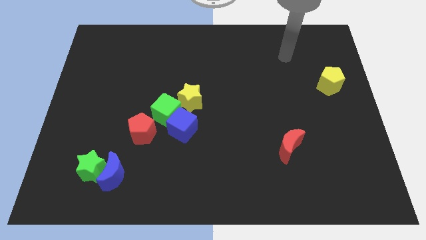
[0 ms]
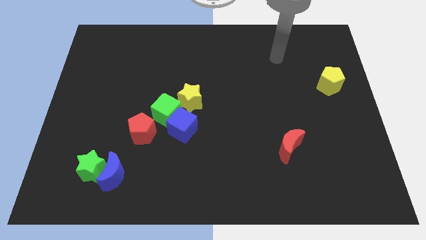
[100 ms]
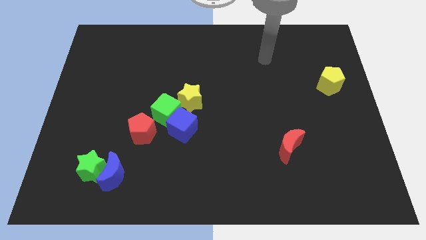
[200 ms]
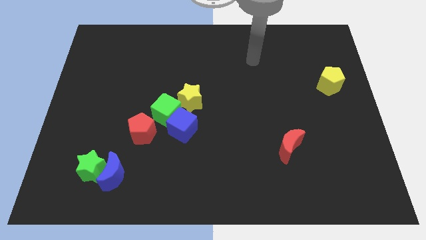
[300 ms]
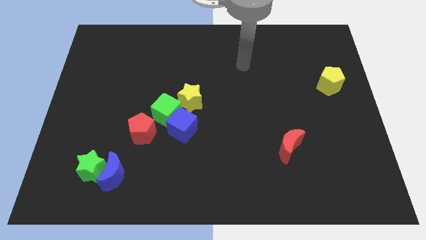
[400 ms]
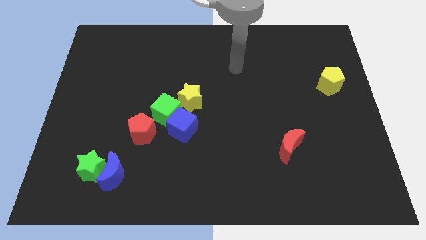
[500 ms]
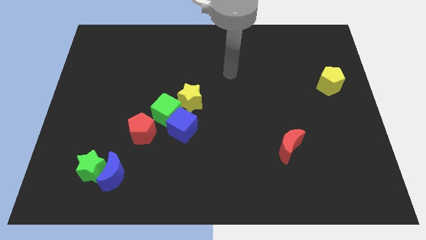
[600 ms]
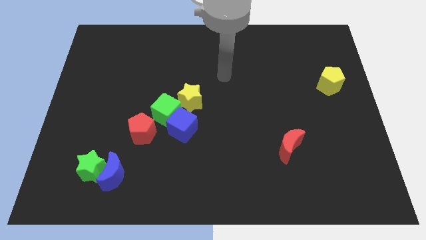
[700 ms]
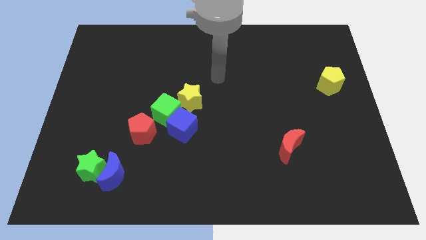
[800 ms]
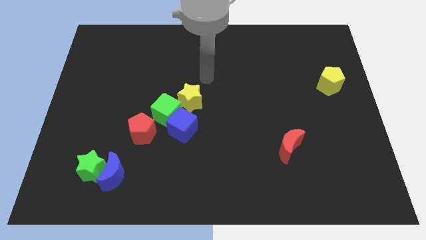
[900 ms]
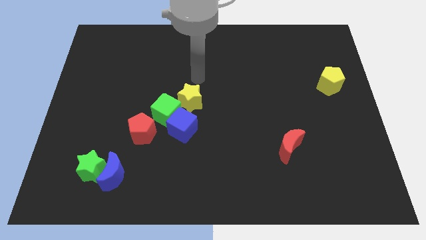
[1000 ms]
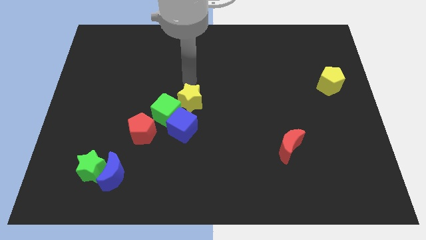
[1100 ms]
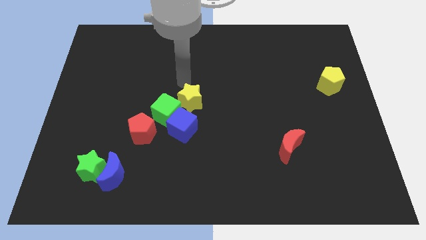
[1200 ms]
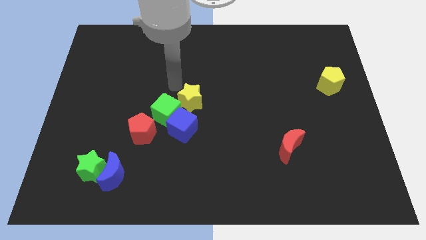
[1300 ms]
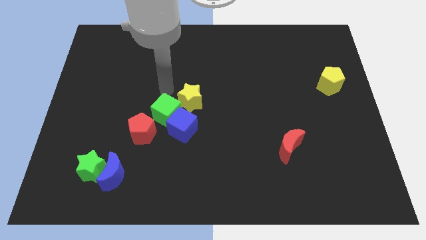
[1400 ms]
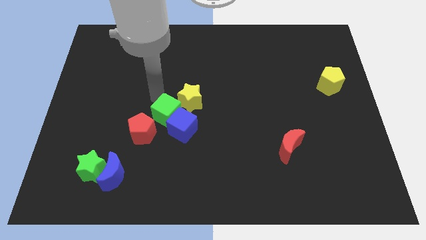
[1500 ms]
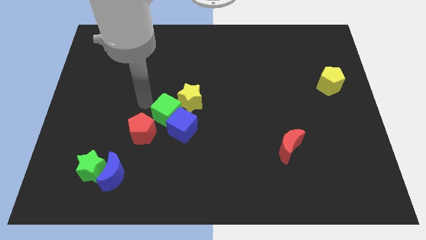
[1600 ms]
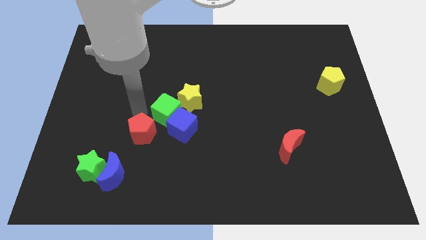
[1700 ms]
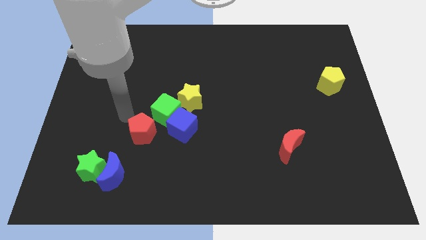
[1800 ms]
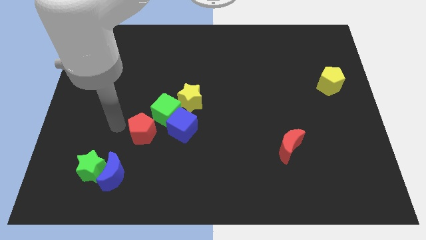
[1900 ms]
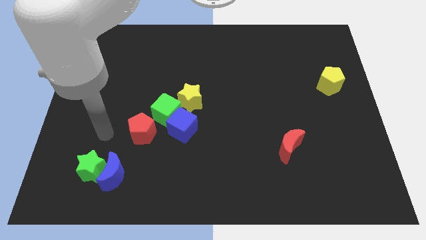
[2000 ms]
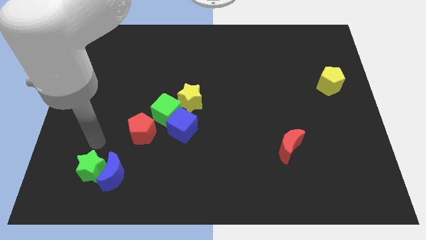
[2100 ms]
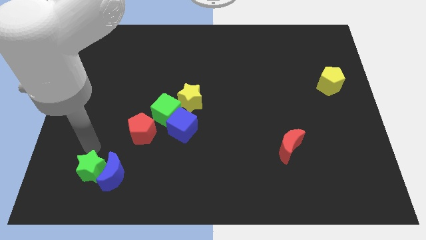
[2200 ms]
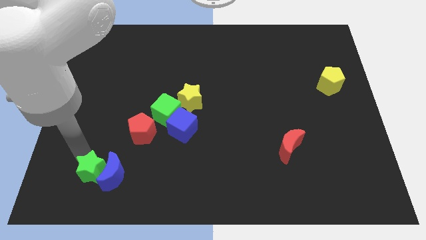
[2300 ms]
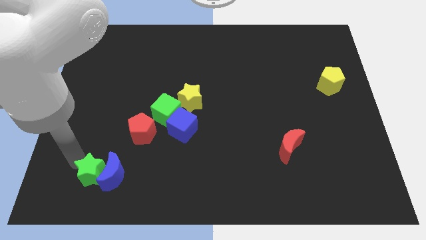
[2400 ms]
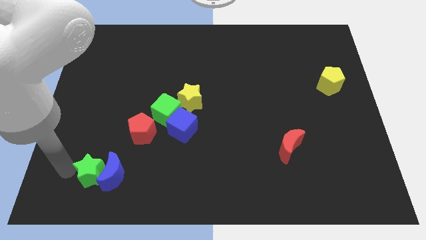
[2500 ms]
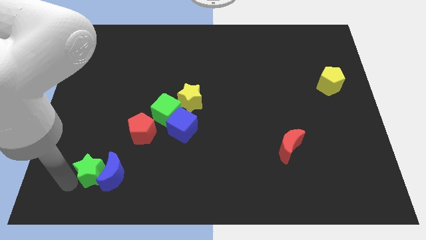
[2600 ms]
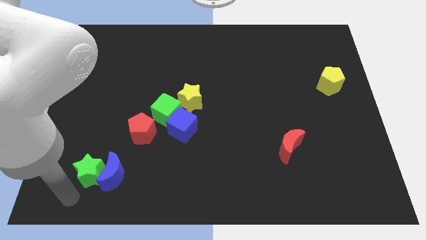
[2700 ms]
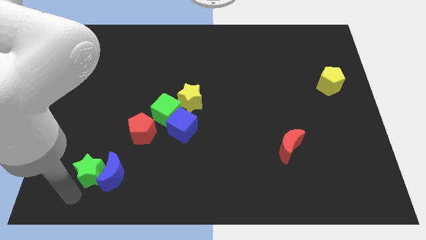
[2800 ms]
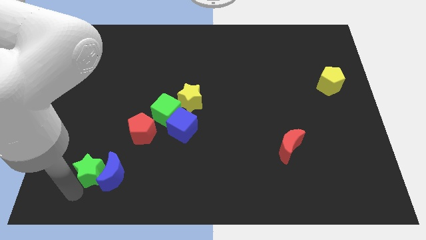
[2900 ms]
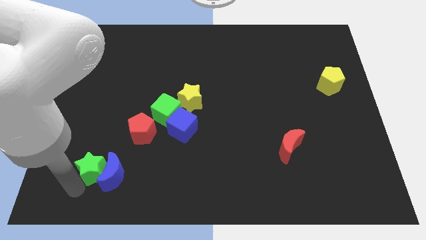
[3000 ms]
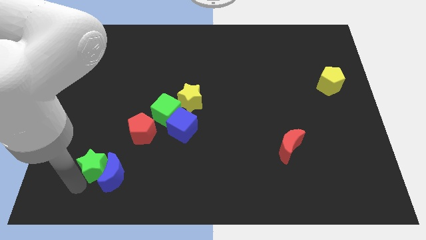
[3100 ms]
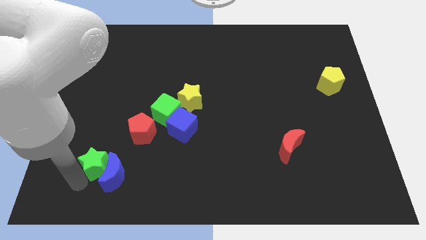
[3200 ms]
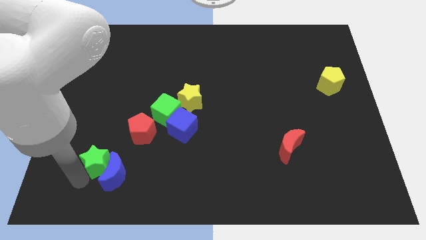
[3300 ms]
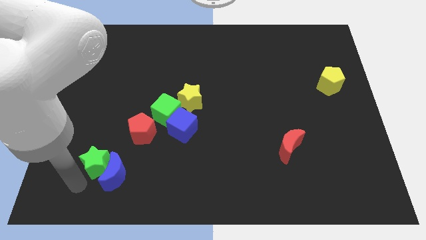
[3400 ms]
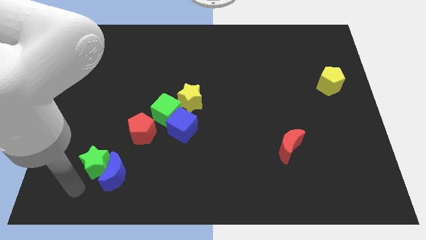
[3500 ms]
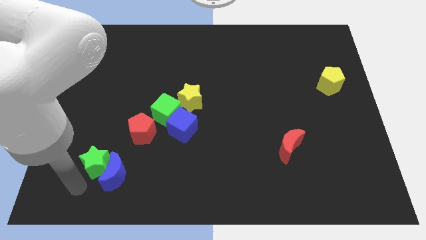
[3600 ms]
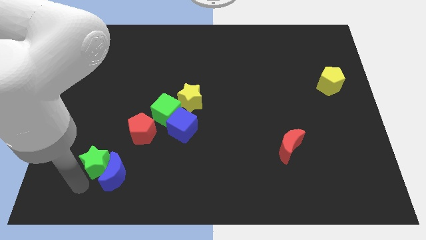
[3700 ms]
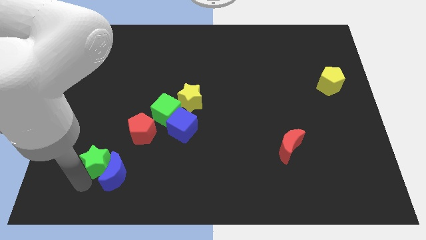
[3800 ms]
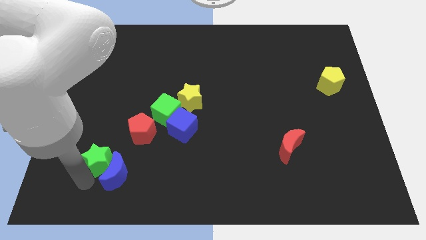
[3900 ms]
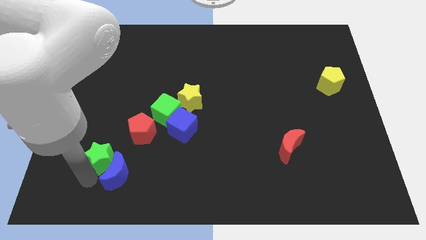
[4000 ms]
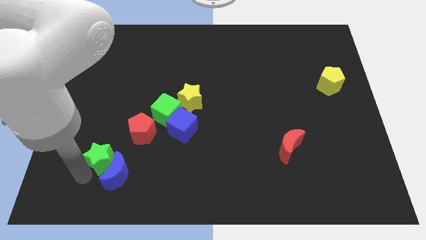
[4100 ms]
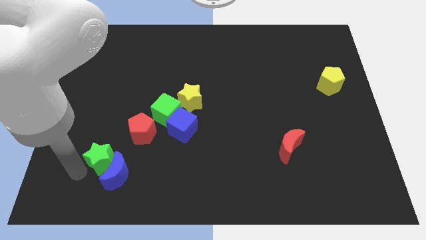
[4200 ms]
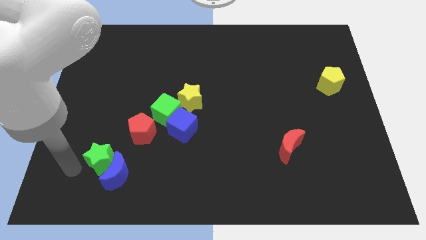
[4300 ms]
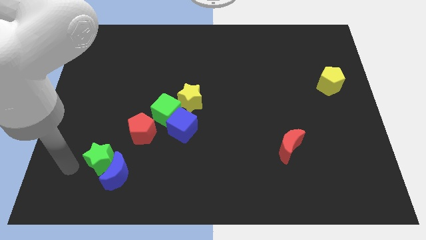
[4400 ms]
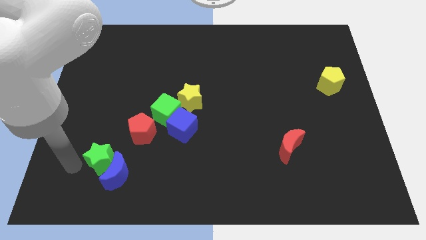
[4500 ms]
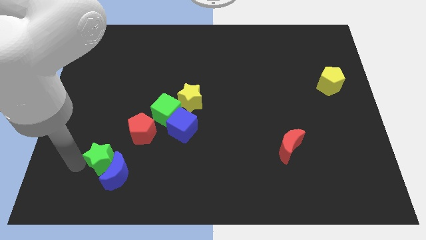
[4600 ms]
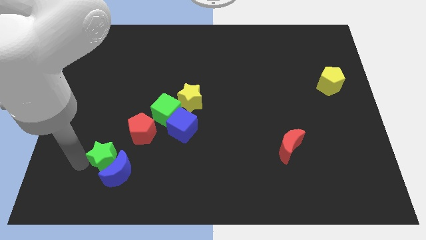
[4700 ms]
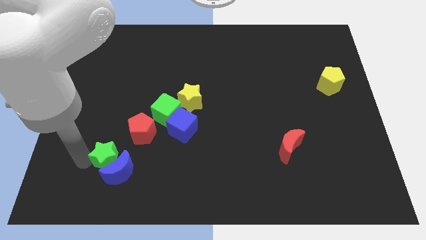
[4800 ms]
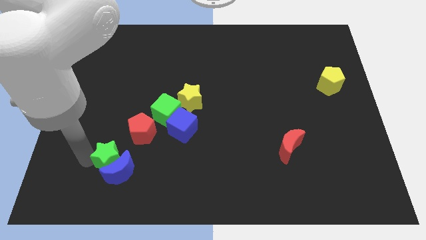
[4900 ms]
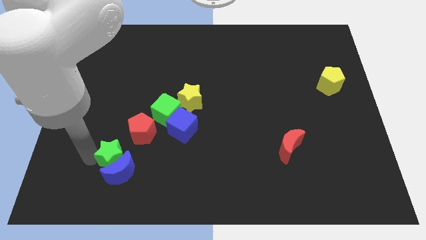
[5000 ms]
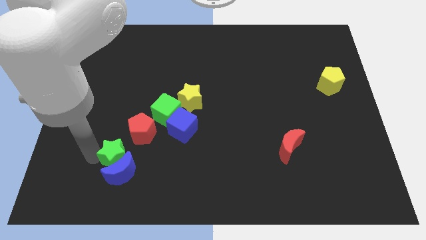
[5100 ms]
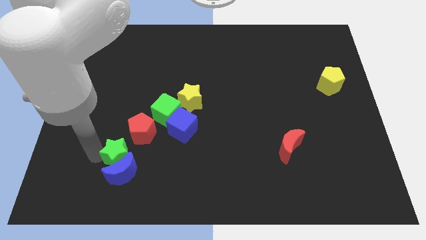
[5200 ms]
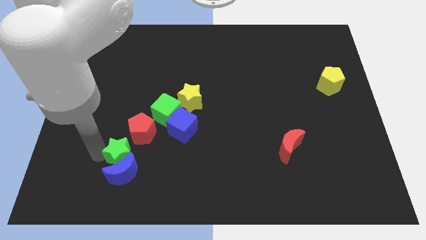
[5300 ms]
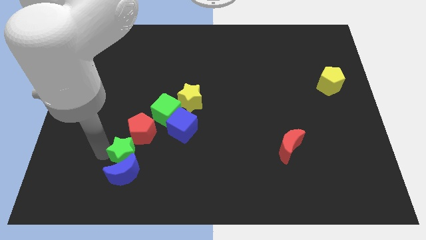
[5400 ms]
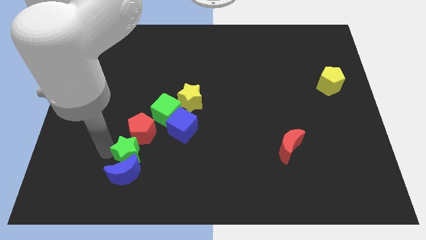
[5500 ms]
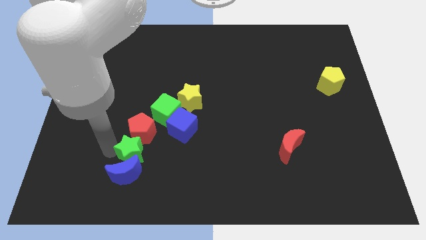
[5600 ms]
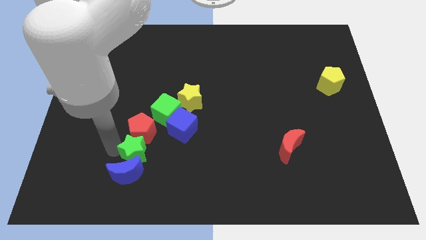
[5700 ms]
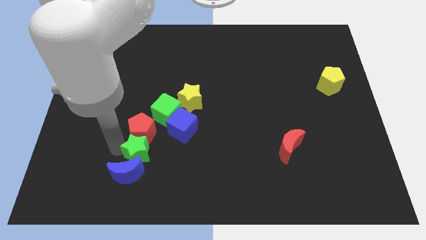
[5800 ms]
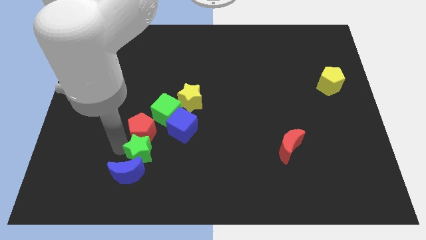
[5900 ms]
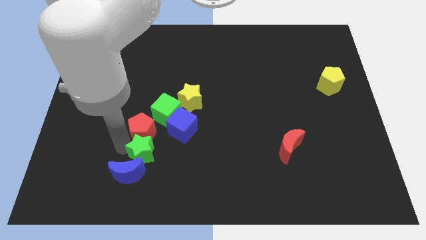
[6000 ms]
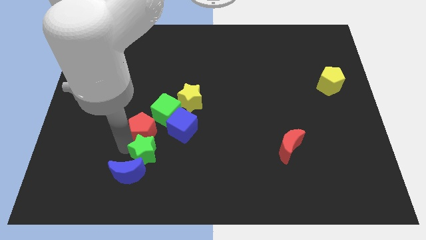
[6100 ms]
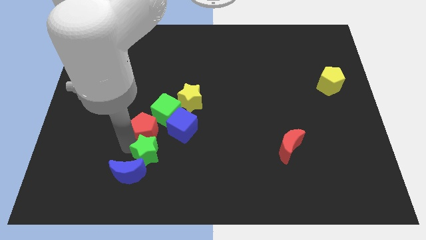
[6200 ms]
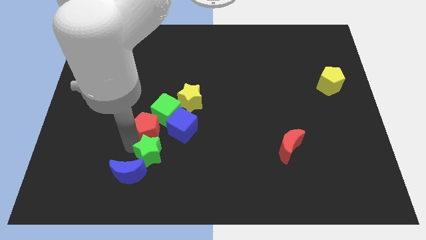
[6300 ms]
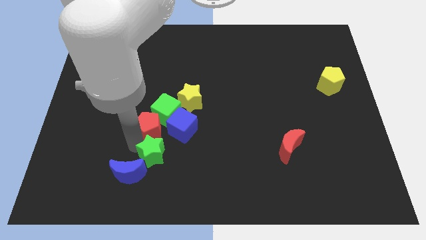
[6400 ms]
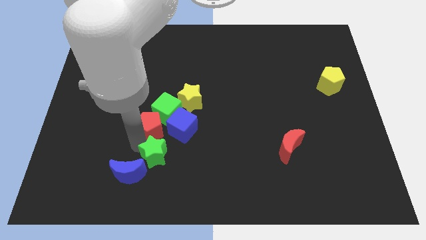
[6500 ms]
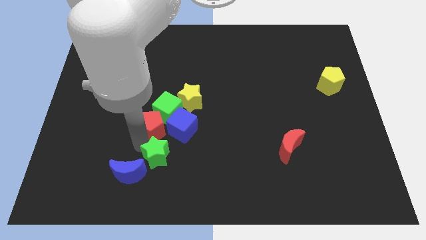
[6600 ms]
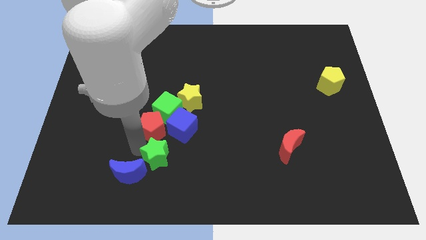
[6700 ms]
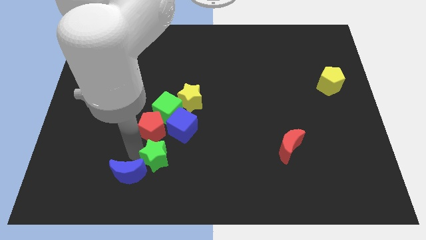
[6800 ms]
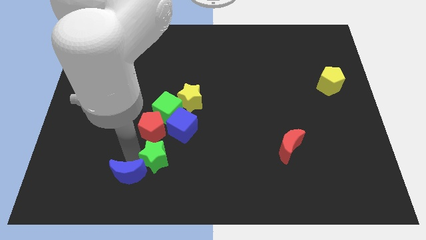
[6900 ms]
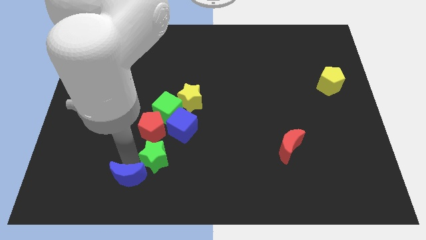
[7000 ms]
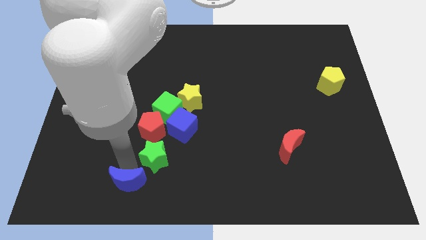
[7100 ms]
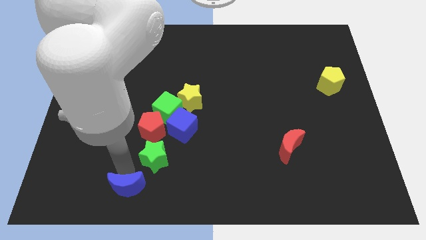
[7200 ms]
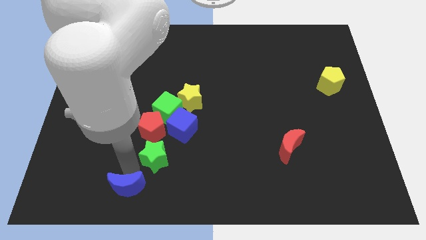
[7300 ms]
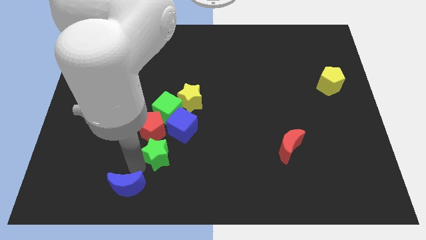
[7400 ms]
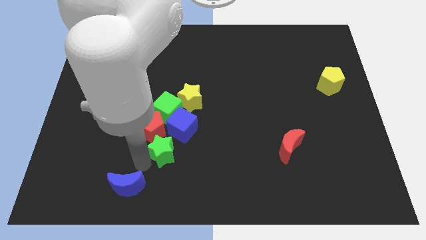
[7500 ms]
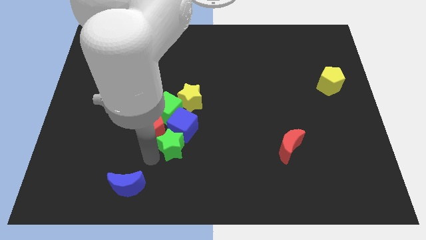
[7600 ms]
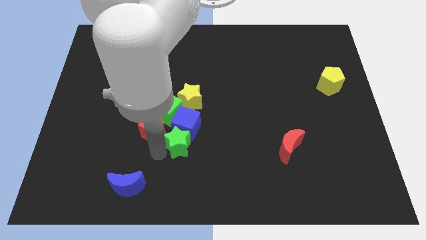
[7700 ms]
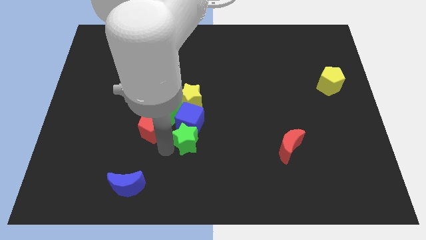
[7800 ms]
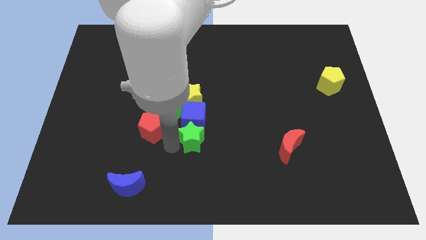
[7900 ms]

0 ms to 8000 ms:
move the green star to the middle of the board
